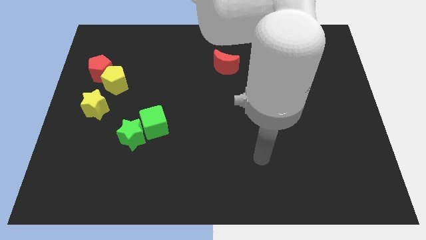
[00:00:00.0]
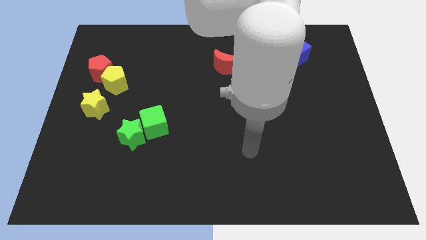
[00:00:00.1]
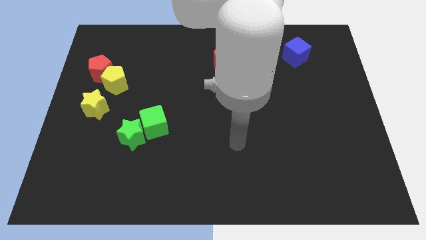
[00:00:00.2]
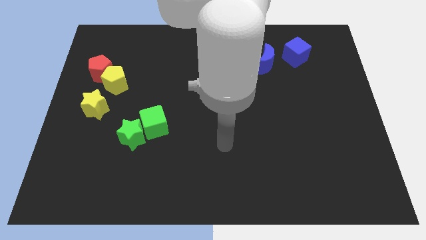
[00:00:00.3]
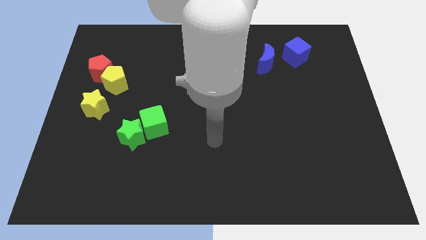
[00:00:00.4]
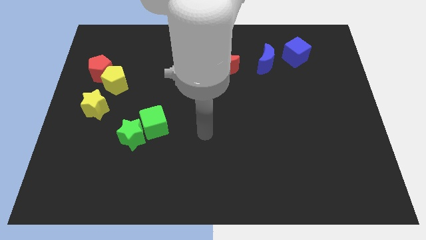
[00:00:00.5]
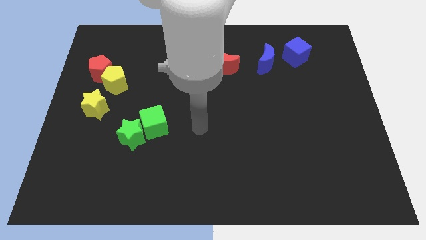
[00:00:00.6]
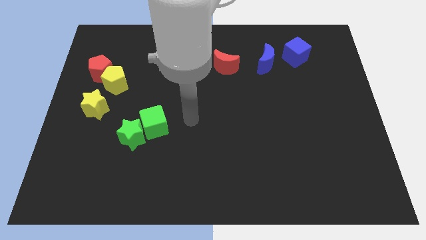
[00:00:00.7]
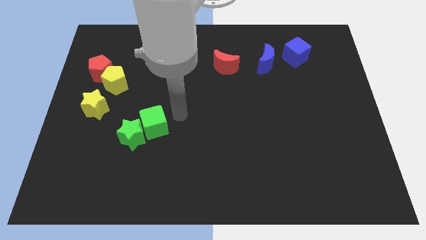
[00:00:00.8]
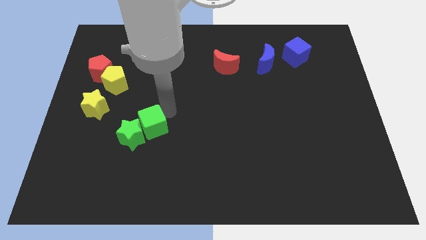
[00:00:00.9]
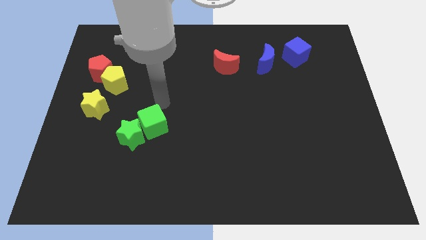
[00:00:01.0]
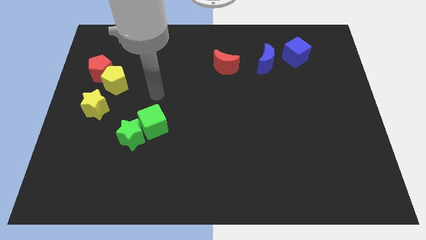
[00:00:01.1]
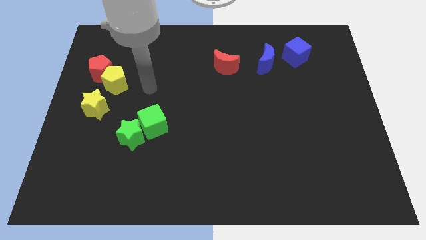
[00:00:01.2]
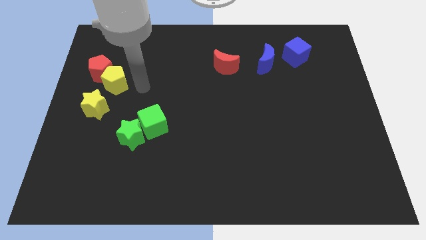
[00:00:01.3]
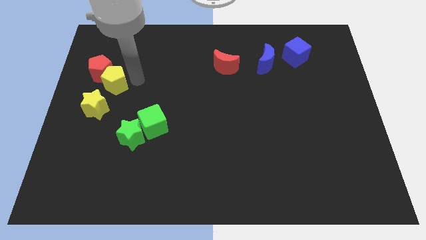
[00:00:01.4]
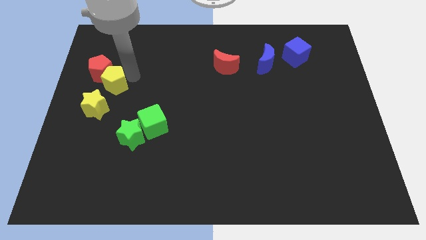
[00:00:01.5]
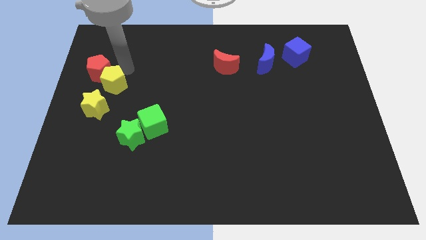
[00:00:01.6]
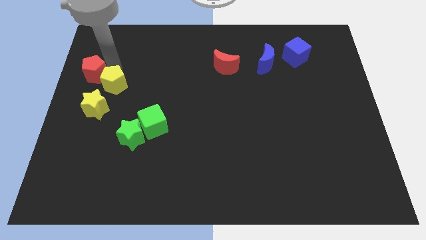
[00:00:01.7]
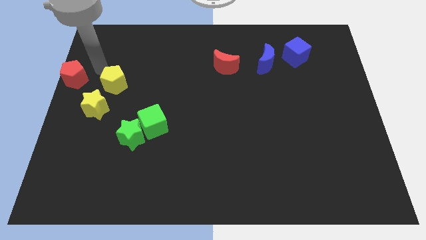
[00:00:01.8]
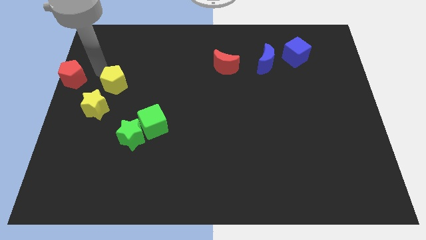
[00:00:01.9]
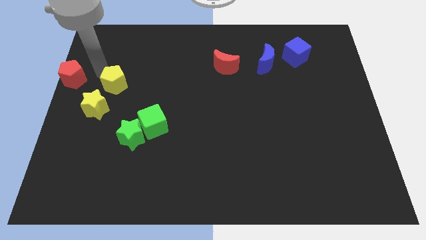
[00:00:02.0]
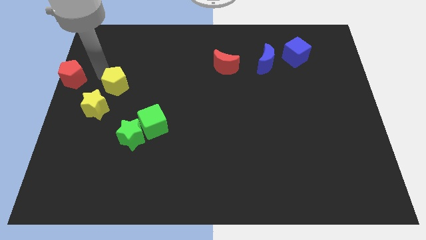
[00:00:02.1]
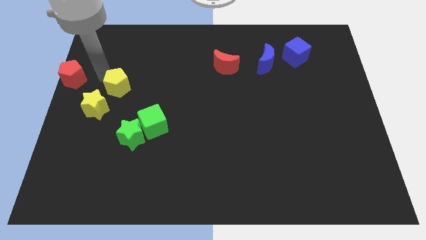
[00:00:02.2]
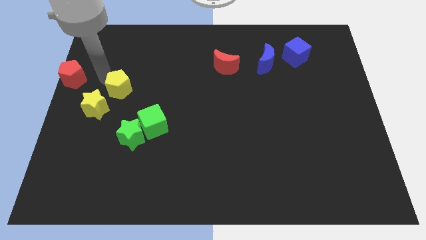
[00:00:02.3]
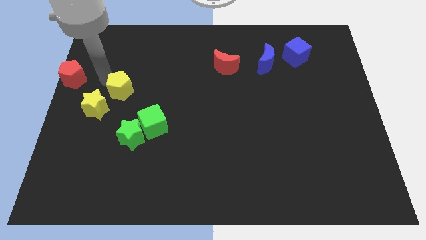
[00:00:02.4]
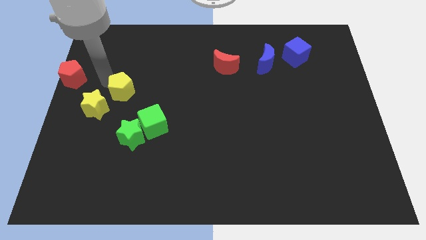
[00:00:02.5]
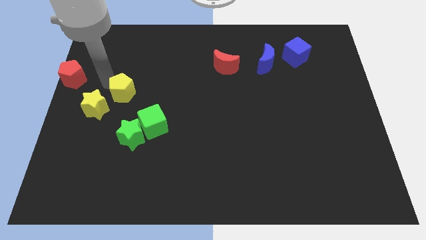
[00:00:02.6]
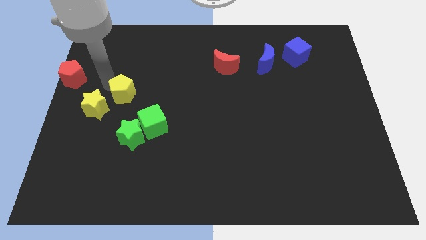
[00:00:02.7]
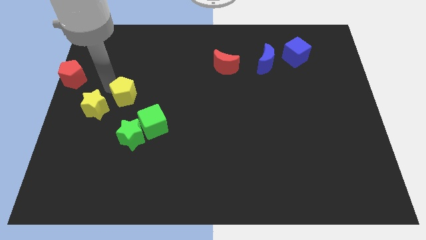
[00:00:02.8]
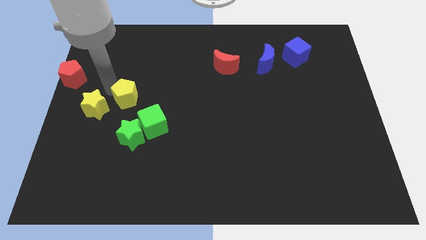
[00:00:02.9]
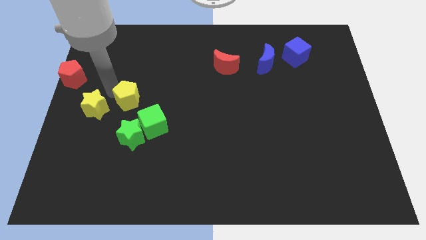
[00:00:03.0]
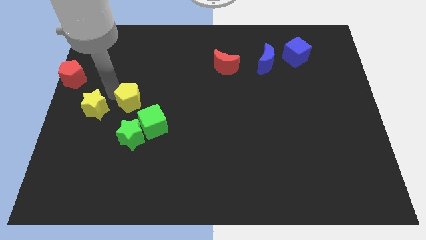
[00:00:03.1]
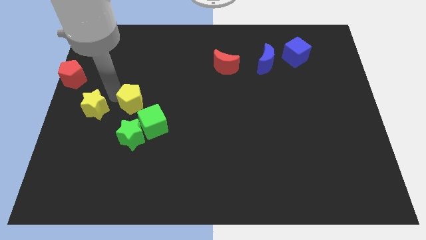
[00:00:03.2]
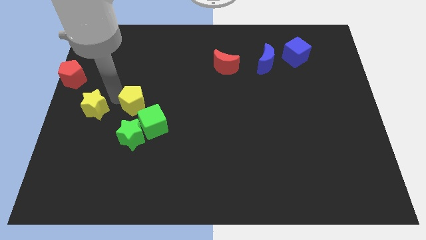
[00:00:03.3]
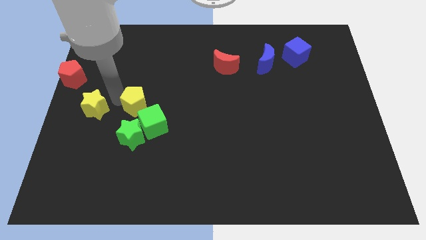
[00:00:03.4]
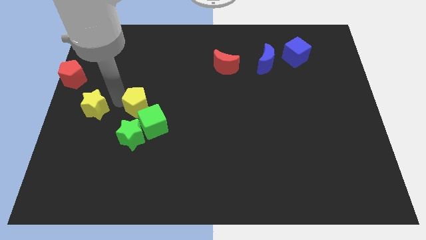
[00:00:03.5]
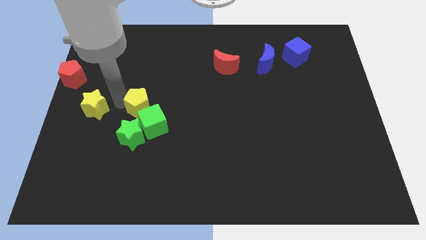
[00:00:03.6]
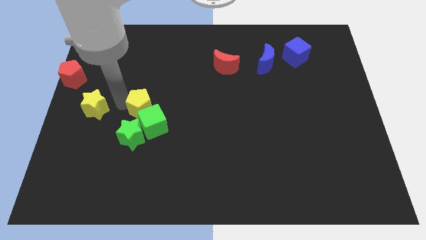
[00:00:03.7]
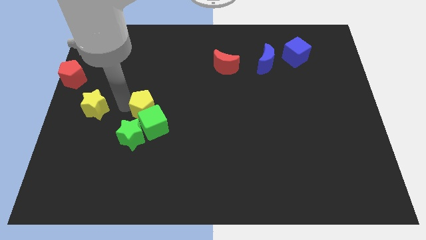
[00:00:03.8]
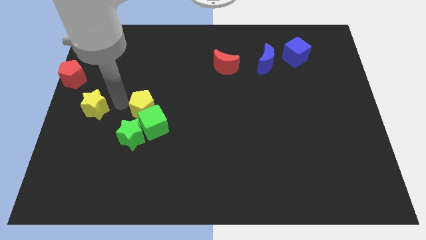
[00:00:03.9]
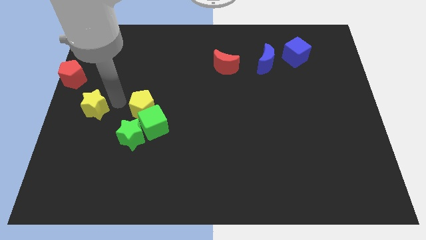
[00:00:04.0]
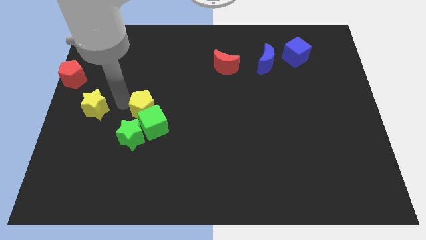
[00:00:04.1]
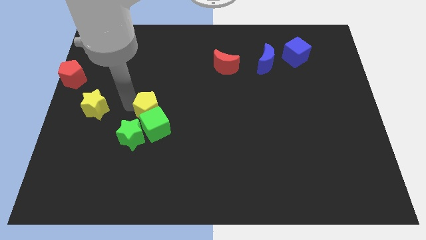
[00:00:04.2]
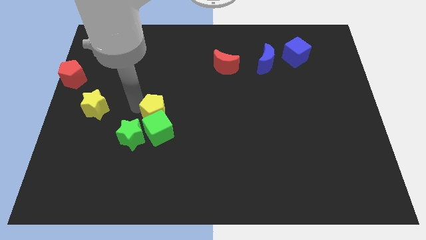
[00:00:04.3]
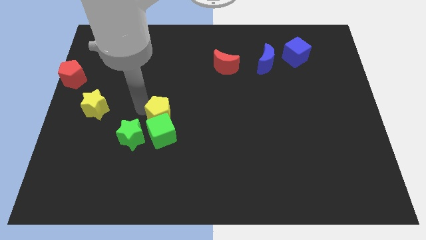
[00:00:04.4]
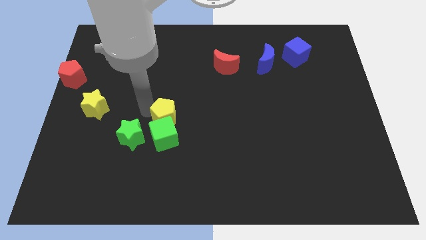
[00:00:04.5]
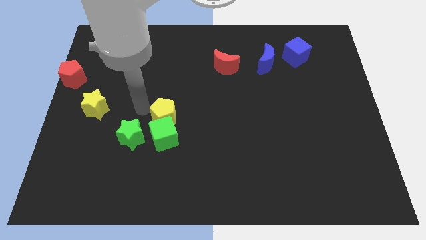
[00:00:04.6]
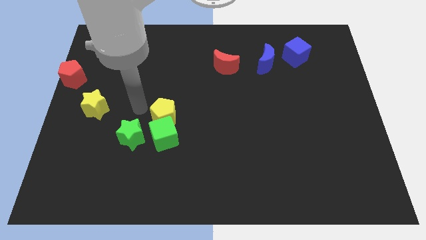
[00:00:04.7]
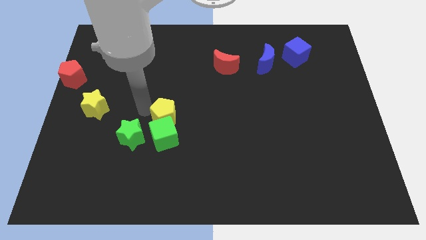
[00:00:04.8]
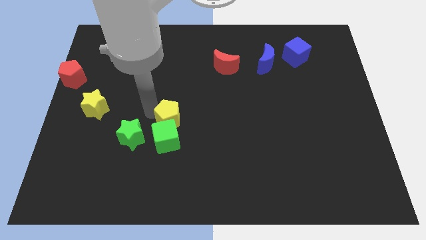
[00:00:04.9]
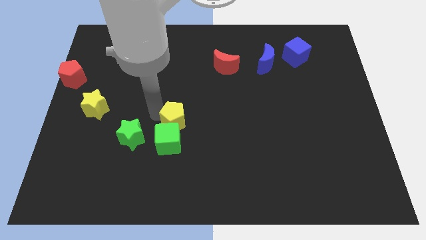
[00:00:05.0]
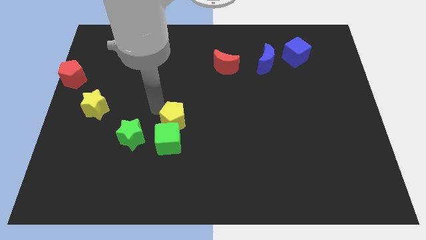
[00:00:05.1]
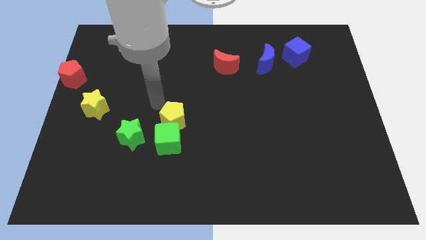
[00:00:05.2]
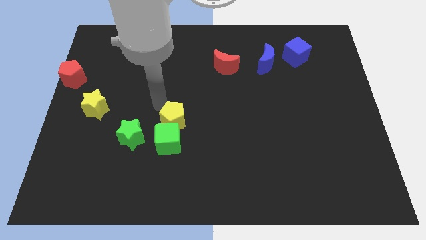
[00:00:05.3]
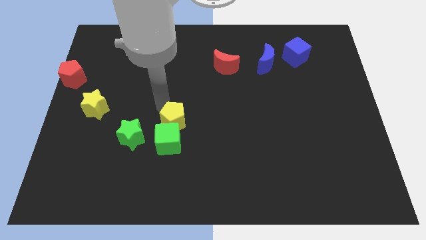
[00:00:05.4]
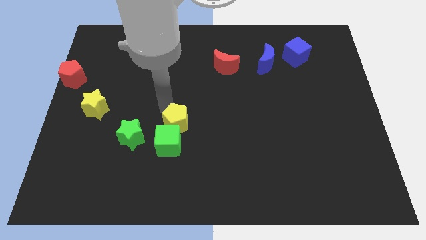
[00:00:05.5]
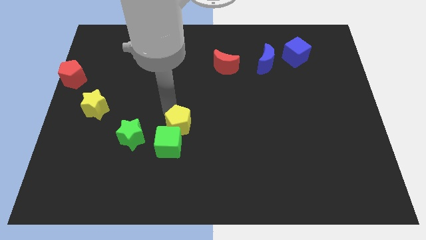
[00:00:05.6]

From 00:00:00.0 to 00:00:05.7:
push the yellow pentagon downwards and to the right

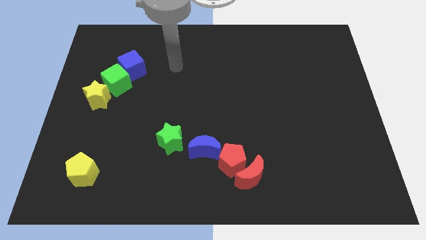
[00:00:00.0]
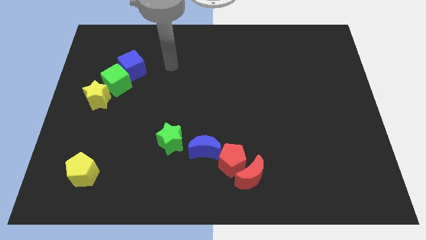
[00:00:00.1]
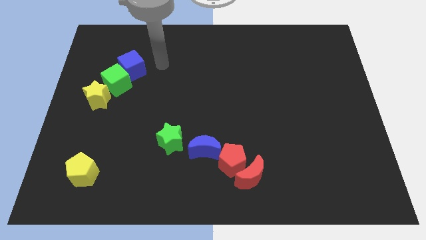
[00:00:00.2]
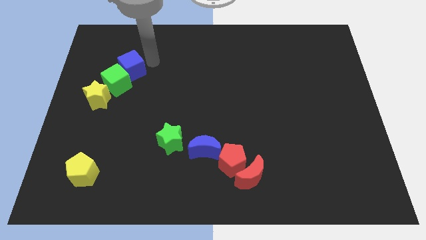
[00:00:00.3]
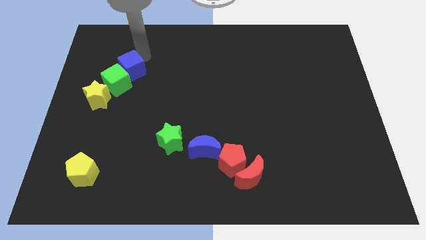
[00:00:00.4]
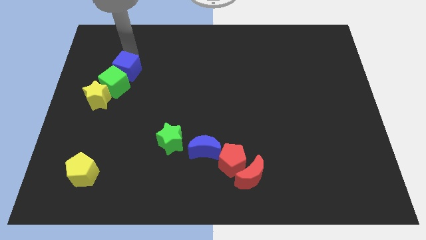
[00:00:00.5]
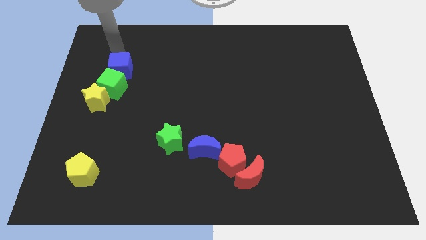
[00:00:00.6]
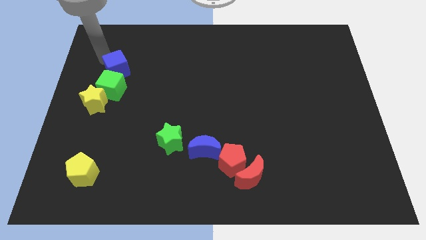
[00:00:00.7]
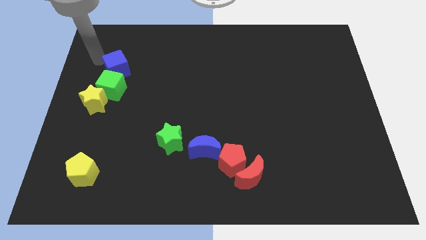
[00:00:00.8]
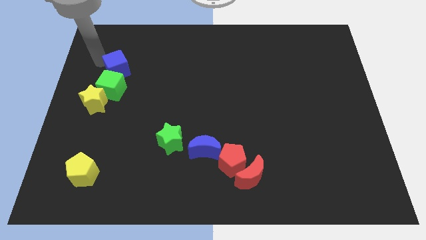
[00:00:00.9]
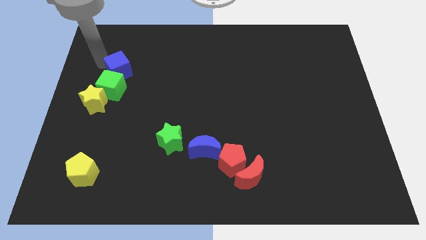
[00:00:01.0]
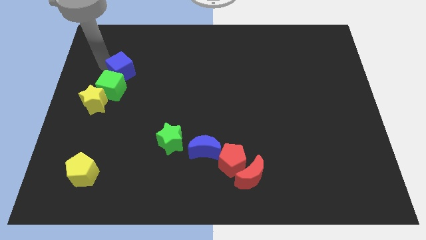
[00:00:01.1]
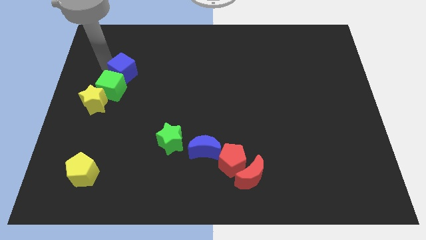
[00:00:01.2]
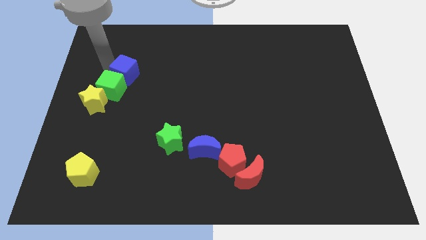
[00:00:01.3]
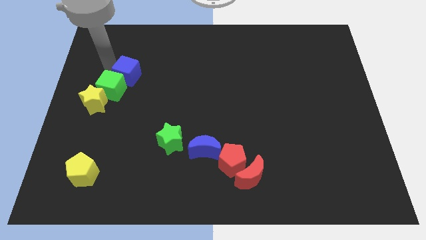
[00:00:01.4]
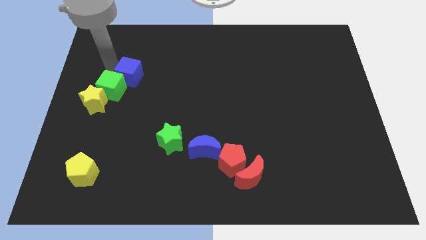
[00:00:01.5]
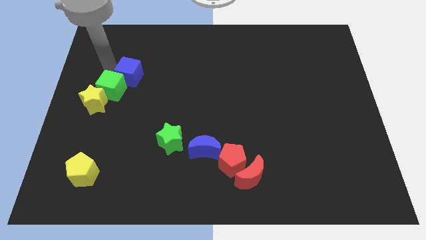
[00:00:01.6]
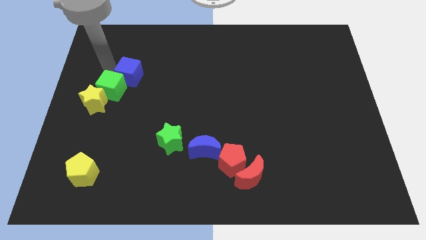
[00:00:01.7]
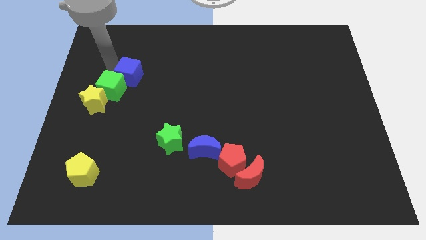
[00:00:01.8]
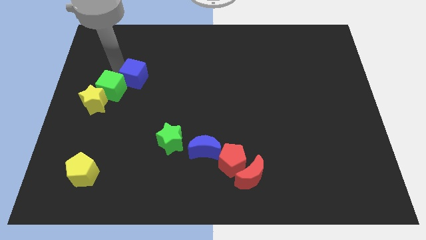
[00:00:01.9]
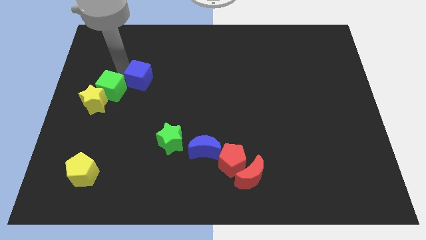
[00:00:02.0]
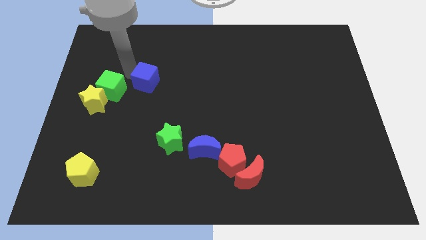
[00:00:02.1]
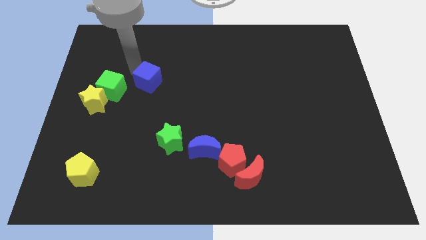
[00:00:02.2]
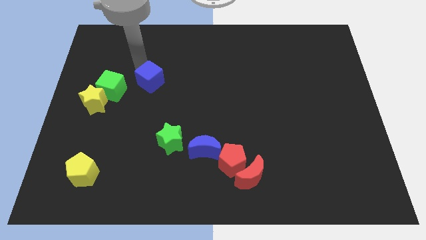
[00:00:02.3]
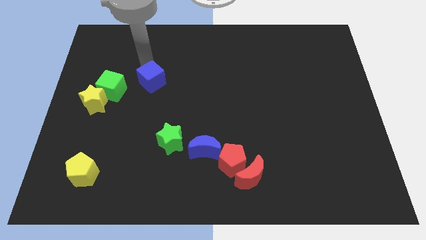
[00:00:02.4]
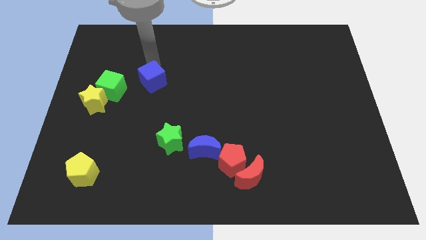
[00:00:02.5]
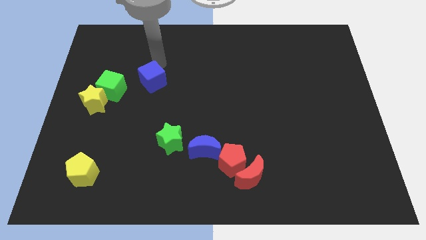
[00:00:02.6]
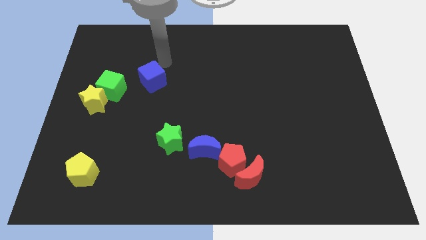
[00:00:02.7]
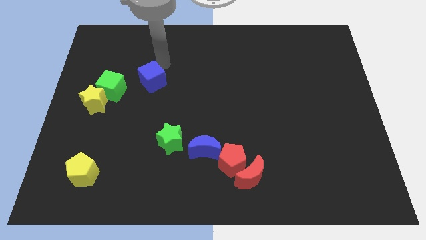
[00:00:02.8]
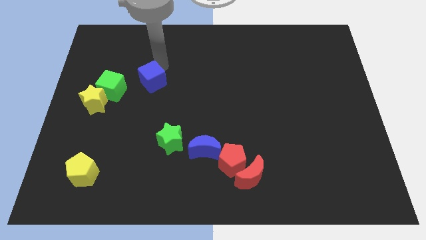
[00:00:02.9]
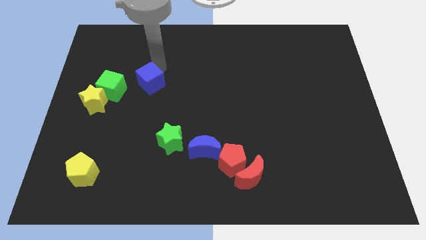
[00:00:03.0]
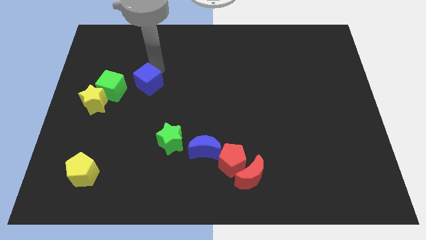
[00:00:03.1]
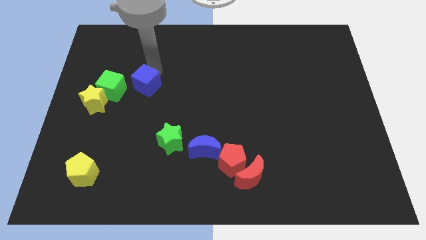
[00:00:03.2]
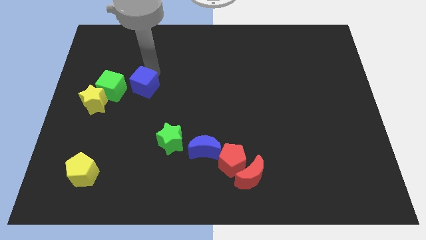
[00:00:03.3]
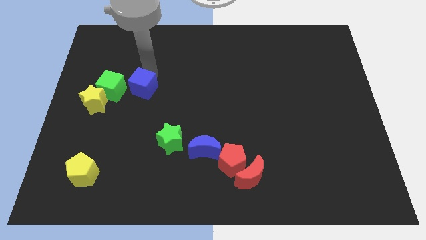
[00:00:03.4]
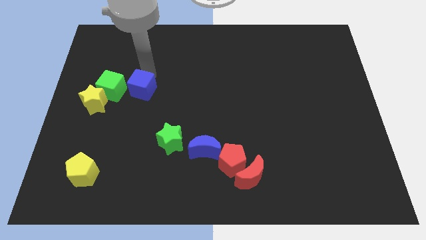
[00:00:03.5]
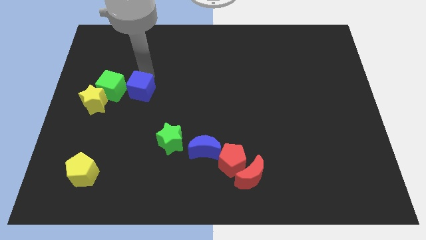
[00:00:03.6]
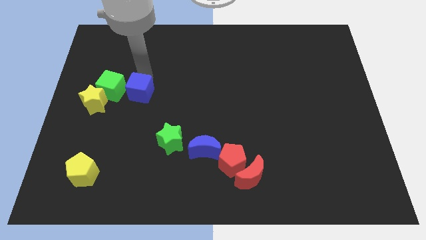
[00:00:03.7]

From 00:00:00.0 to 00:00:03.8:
slightly slide the blue cube down
